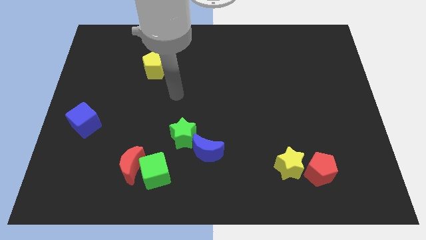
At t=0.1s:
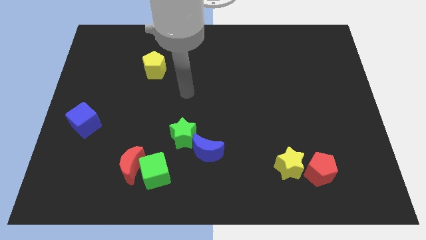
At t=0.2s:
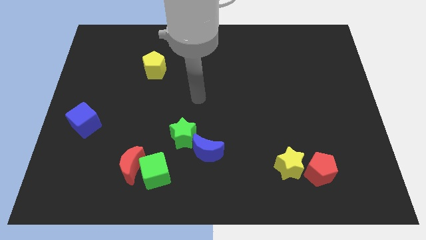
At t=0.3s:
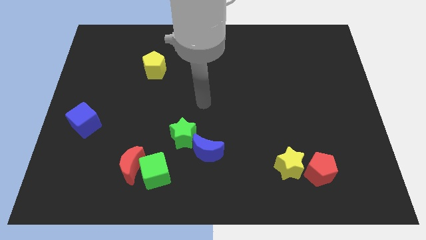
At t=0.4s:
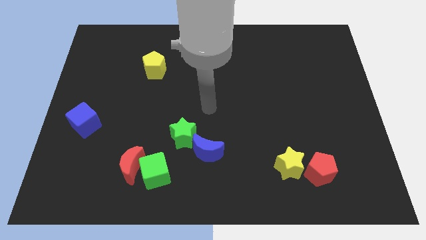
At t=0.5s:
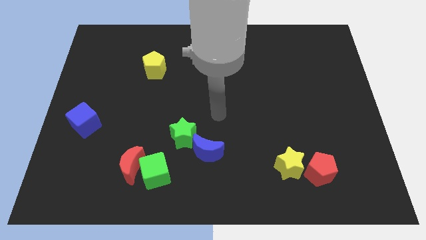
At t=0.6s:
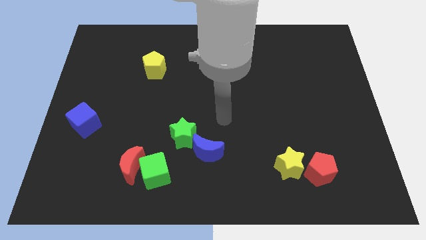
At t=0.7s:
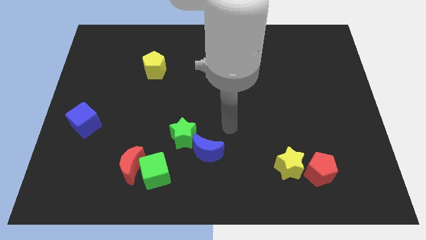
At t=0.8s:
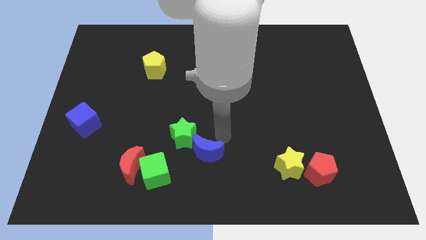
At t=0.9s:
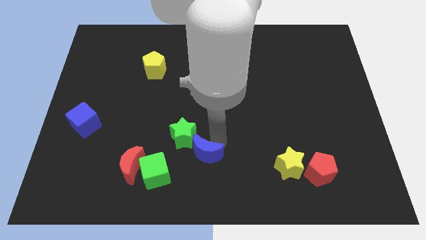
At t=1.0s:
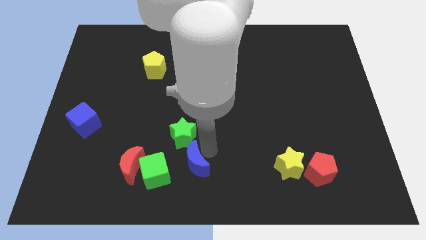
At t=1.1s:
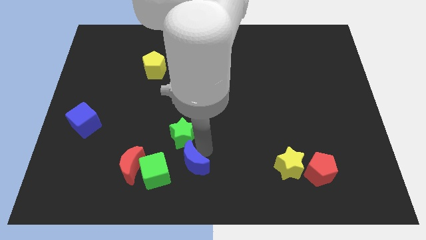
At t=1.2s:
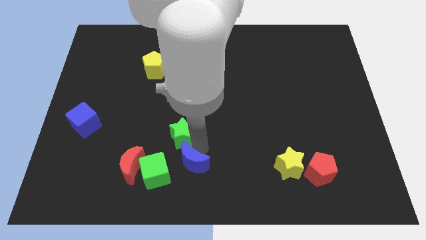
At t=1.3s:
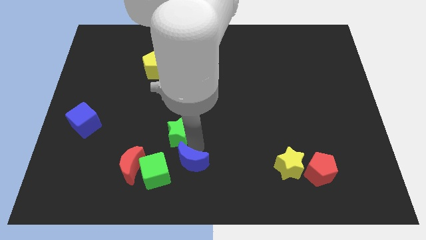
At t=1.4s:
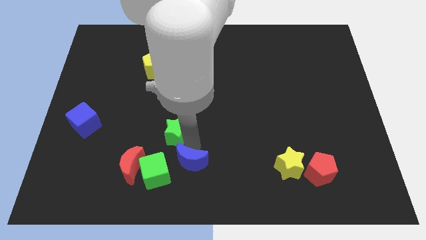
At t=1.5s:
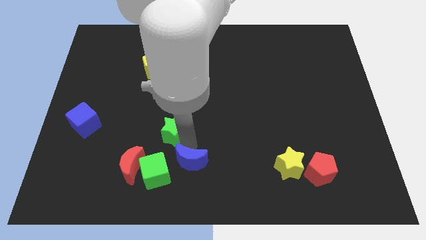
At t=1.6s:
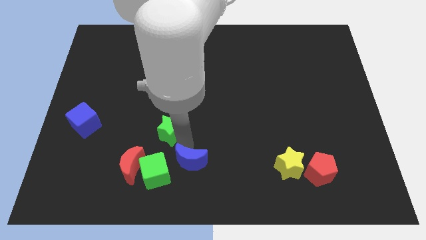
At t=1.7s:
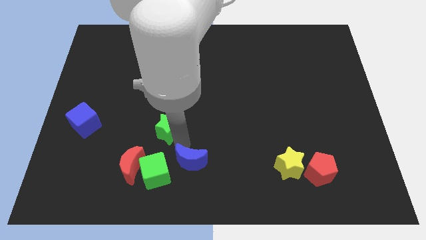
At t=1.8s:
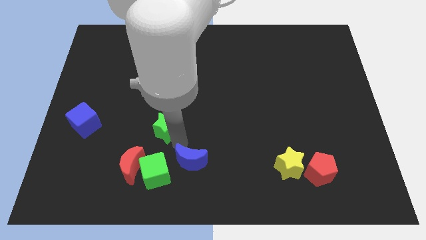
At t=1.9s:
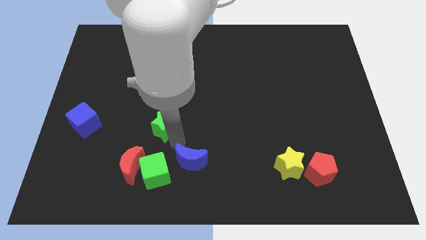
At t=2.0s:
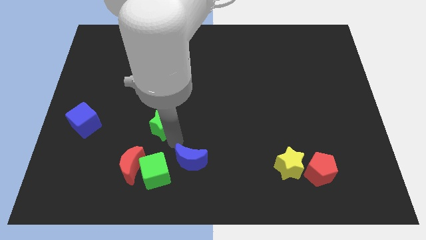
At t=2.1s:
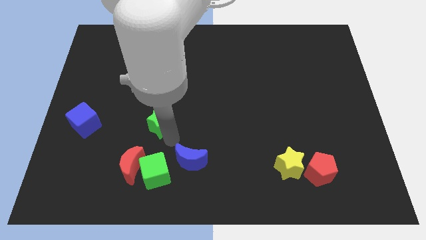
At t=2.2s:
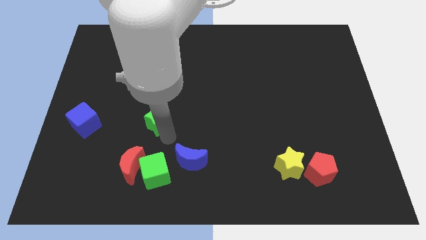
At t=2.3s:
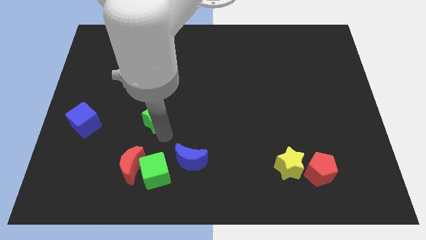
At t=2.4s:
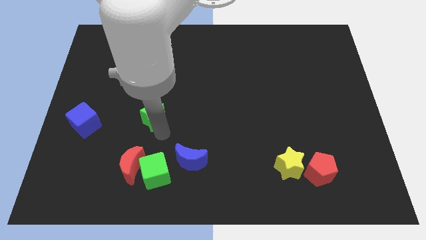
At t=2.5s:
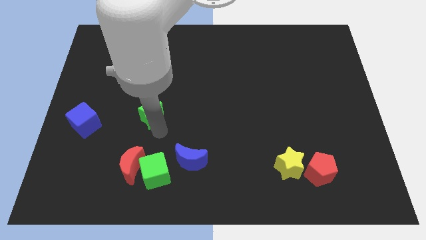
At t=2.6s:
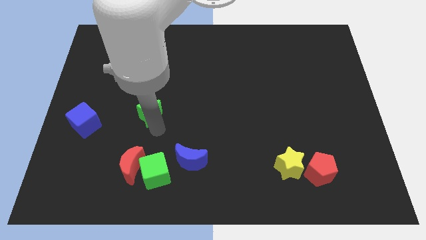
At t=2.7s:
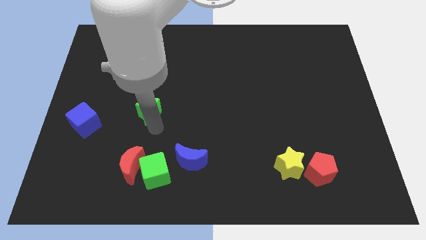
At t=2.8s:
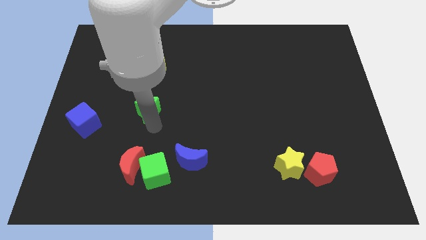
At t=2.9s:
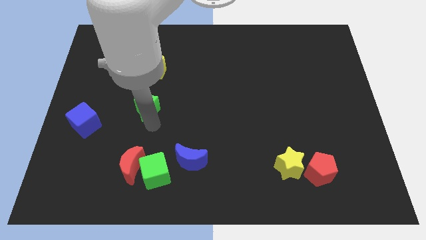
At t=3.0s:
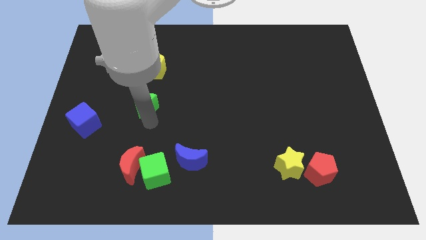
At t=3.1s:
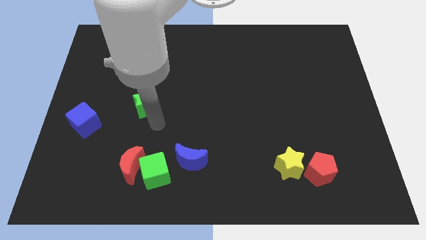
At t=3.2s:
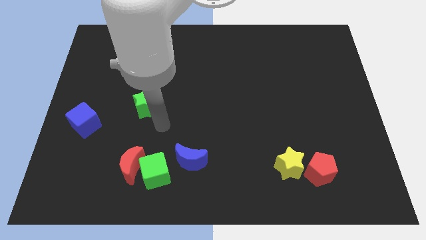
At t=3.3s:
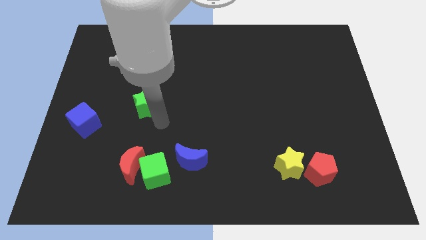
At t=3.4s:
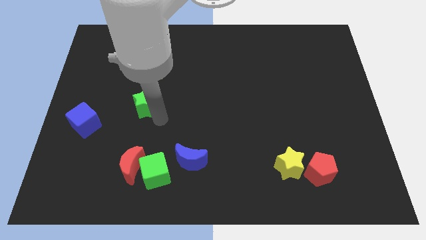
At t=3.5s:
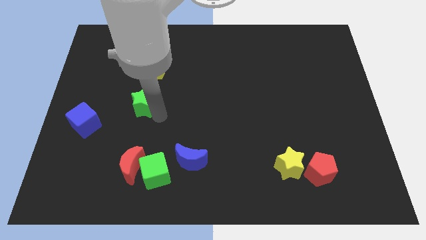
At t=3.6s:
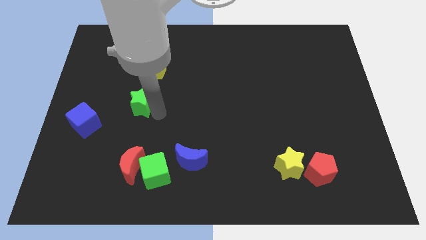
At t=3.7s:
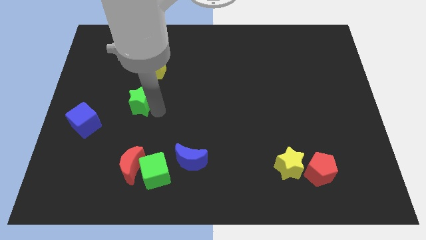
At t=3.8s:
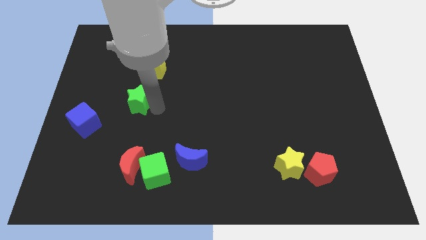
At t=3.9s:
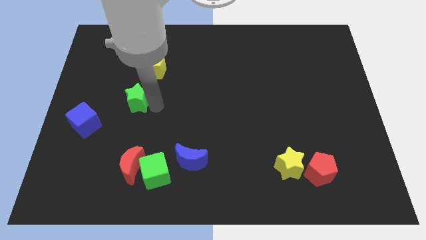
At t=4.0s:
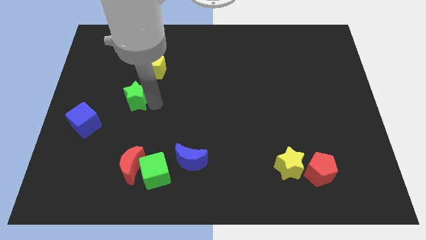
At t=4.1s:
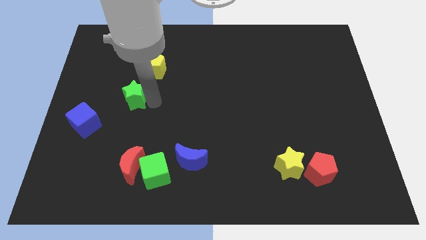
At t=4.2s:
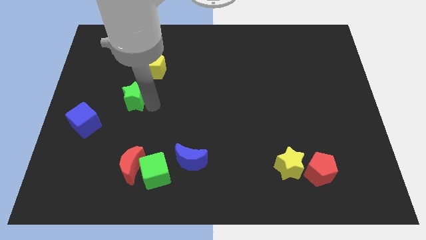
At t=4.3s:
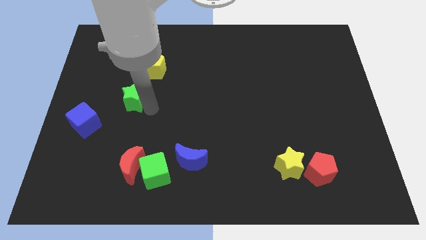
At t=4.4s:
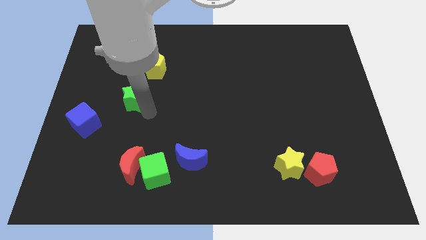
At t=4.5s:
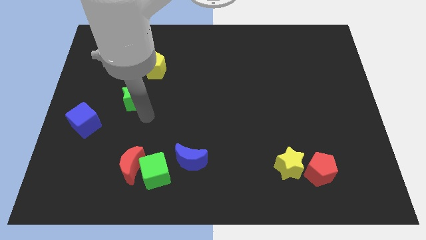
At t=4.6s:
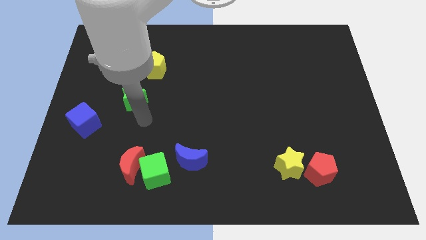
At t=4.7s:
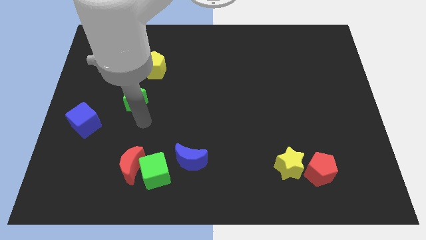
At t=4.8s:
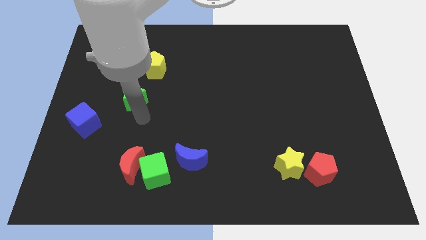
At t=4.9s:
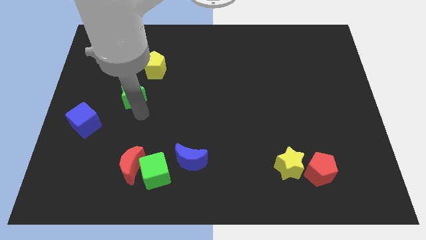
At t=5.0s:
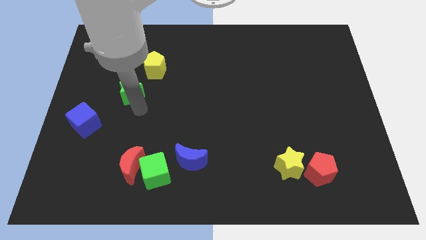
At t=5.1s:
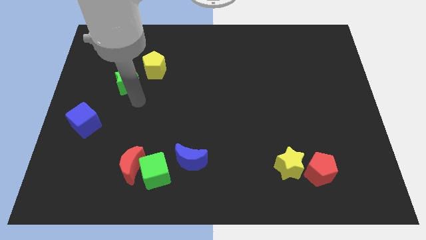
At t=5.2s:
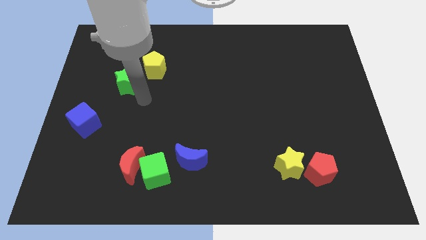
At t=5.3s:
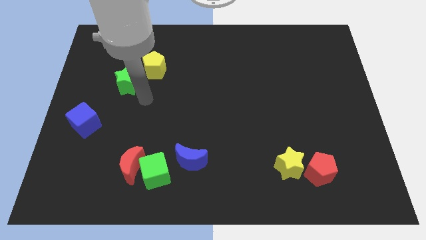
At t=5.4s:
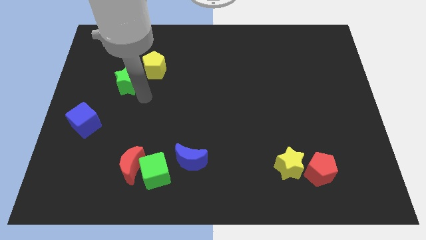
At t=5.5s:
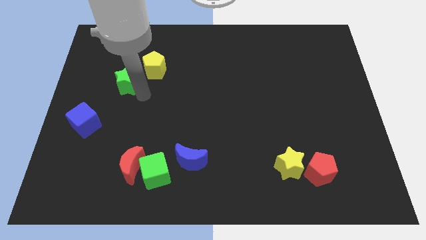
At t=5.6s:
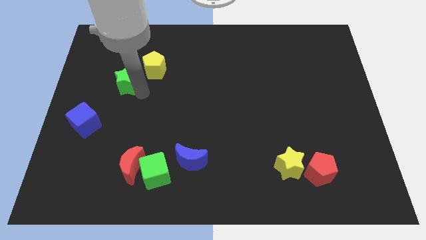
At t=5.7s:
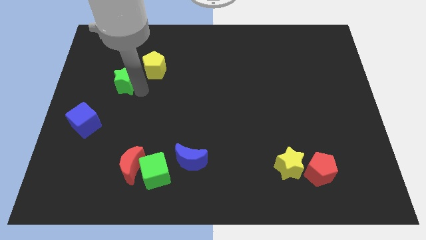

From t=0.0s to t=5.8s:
push the green star to the left of the yellow pentagon

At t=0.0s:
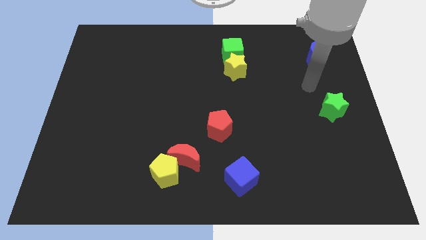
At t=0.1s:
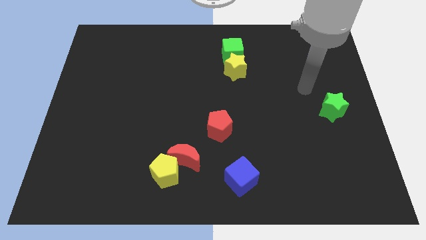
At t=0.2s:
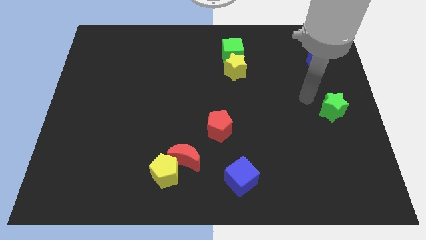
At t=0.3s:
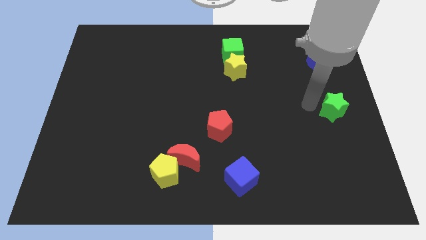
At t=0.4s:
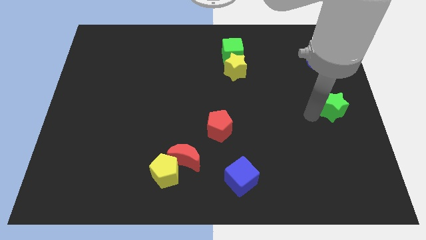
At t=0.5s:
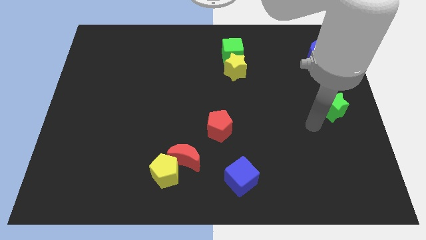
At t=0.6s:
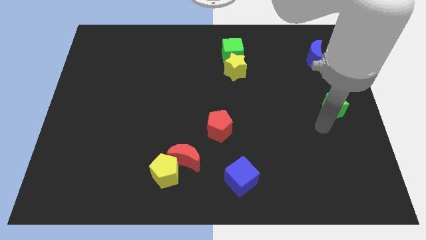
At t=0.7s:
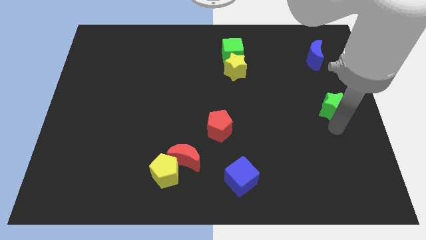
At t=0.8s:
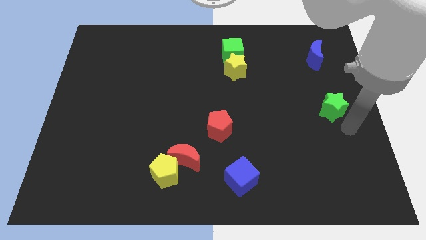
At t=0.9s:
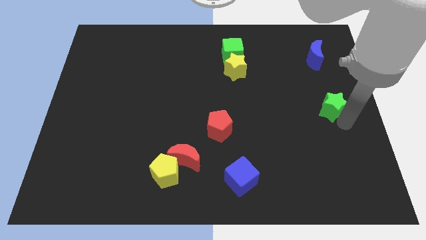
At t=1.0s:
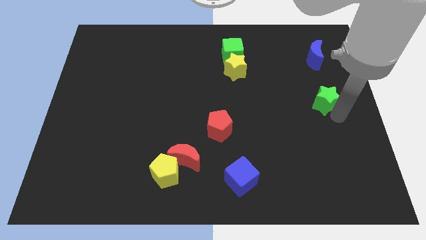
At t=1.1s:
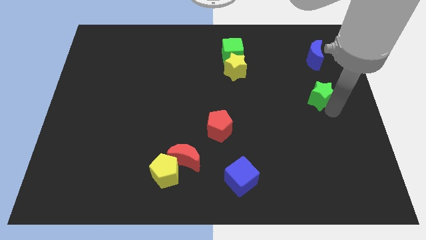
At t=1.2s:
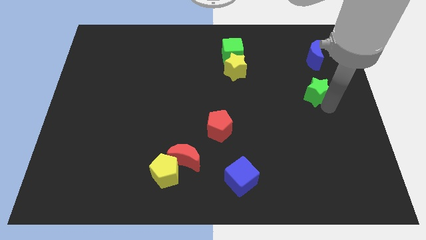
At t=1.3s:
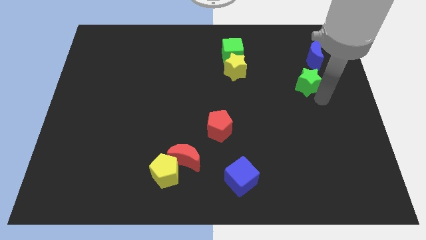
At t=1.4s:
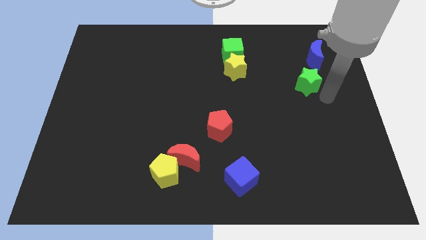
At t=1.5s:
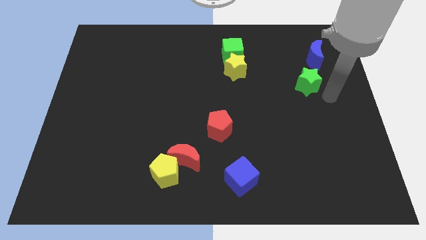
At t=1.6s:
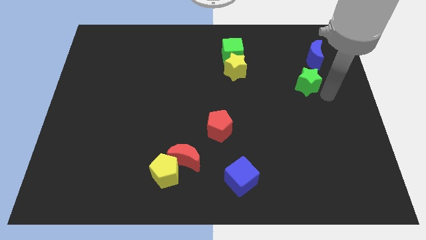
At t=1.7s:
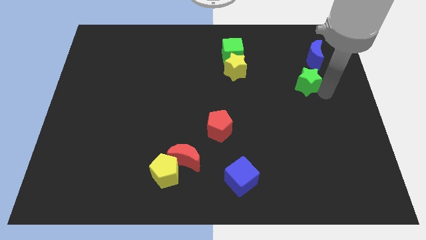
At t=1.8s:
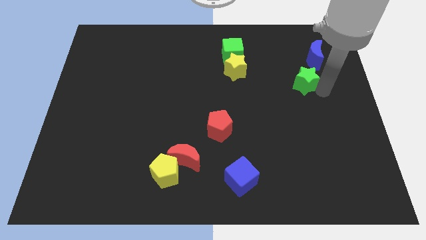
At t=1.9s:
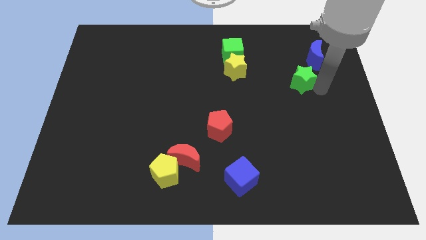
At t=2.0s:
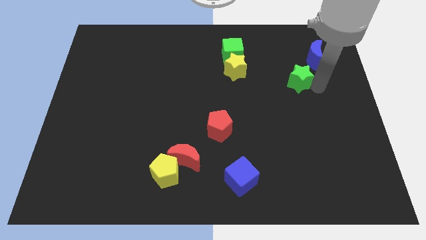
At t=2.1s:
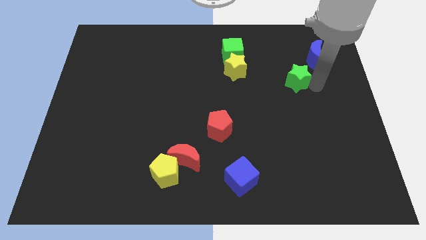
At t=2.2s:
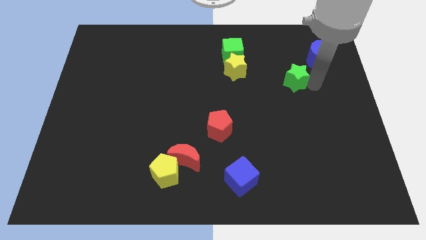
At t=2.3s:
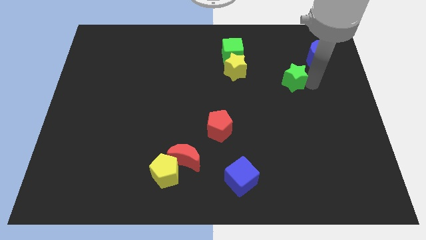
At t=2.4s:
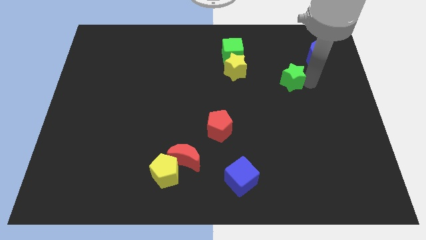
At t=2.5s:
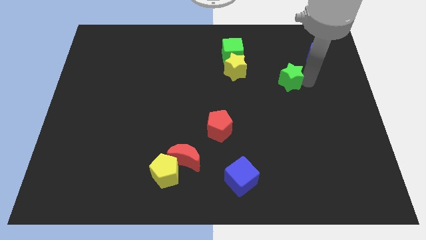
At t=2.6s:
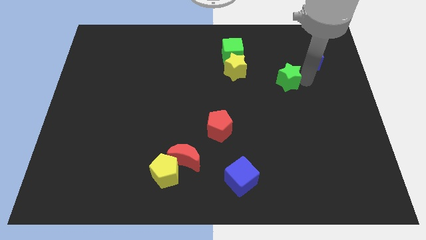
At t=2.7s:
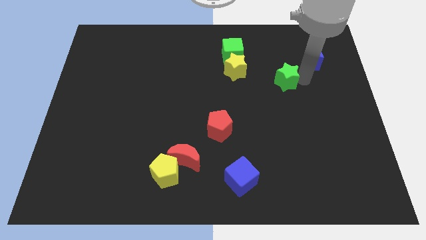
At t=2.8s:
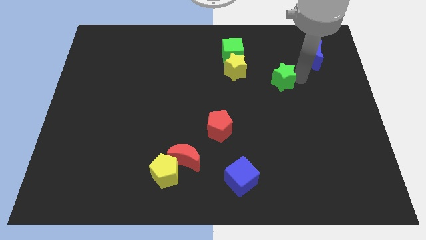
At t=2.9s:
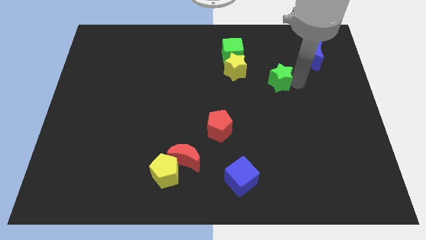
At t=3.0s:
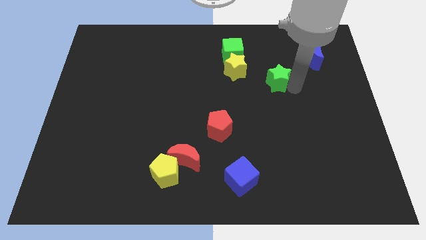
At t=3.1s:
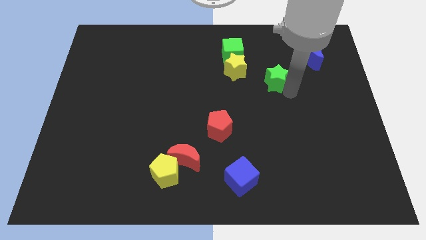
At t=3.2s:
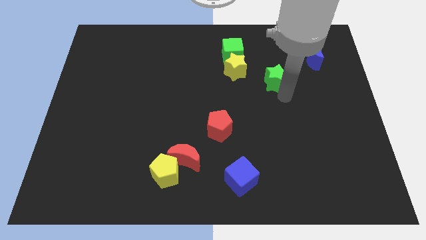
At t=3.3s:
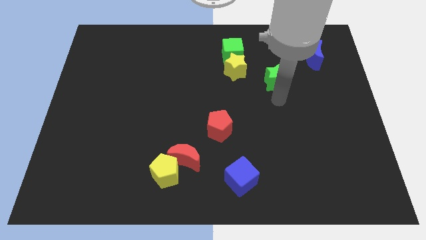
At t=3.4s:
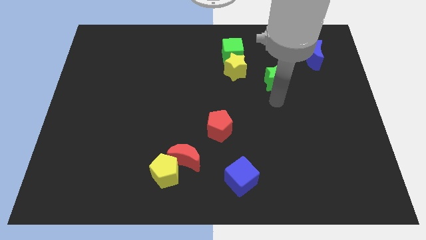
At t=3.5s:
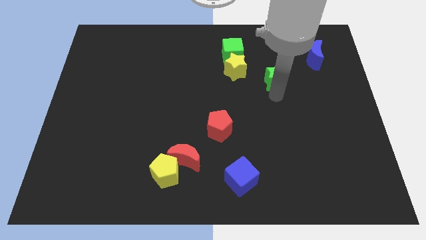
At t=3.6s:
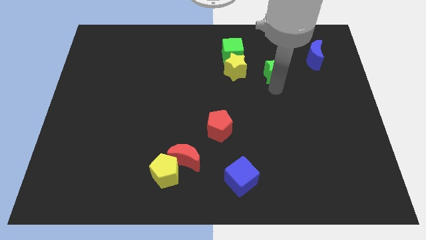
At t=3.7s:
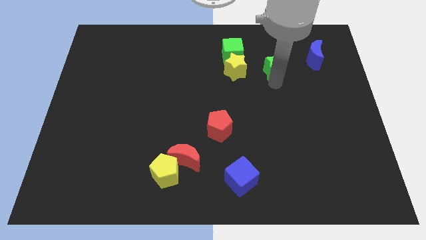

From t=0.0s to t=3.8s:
put the green star just left of the blue moon
